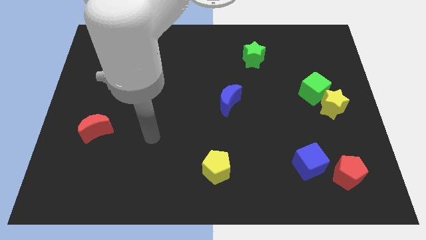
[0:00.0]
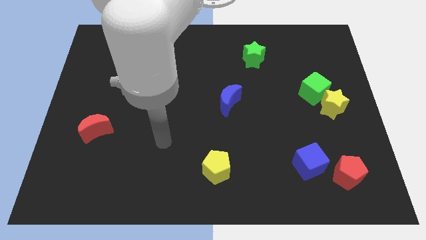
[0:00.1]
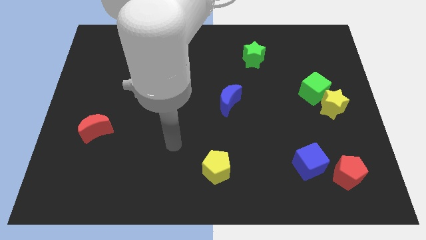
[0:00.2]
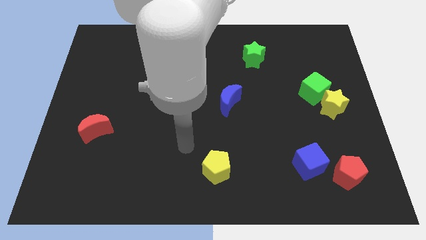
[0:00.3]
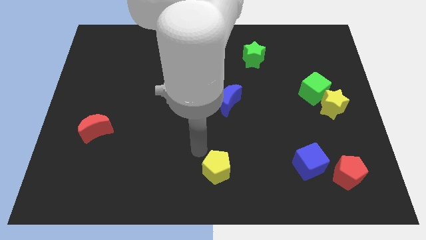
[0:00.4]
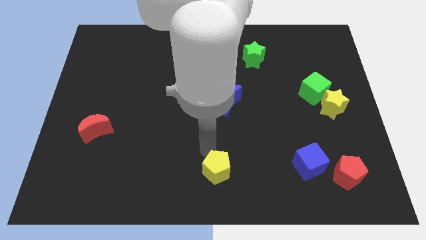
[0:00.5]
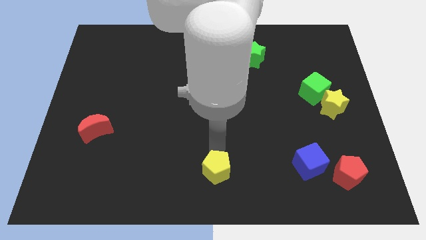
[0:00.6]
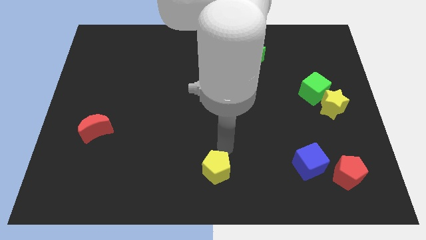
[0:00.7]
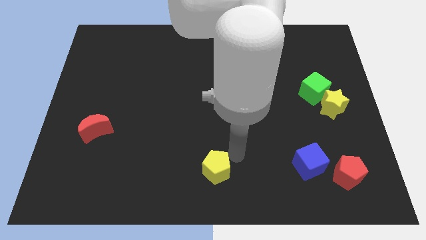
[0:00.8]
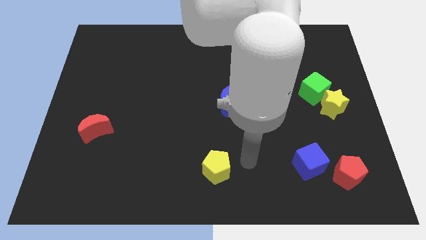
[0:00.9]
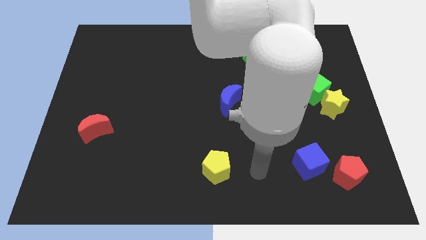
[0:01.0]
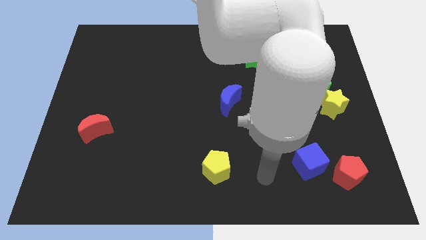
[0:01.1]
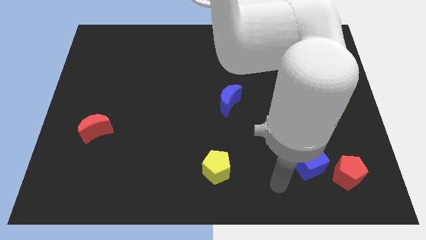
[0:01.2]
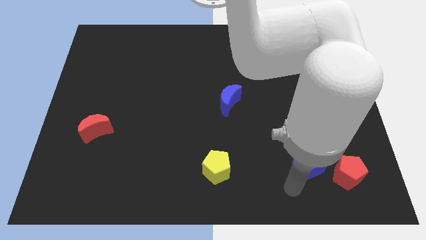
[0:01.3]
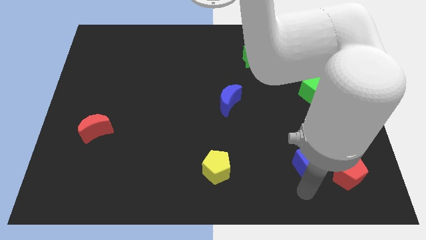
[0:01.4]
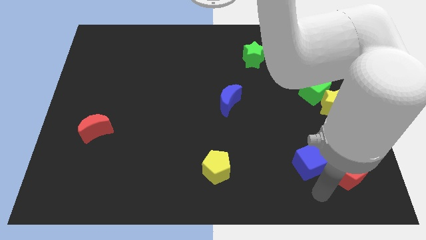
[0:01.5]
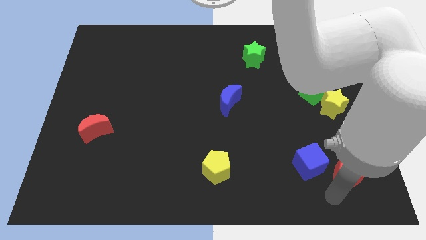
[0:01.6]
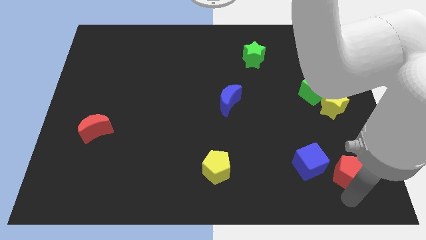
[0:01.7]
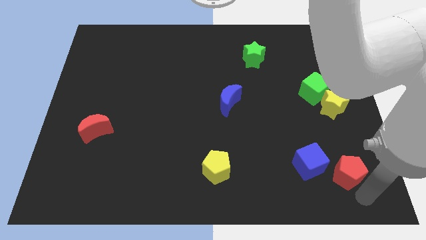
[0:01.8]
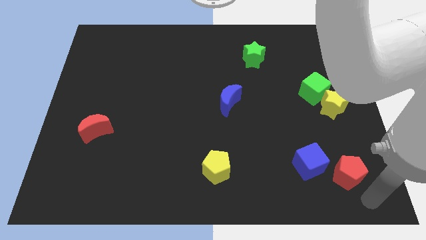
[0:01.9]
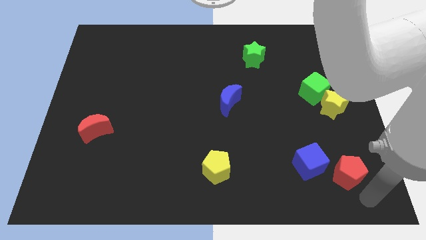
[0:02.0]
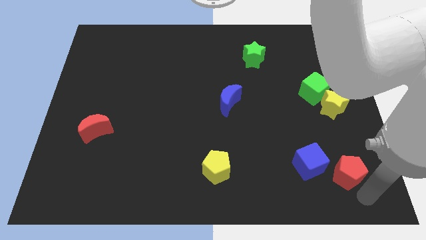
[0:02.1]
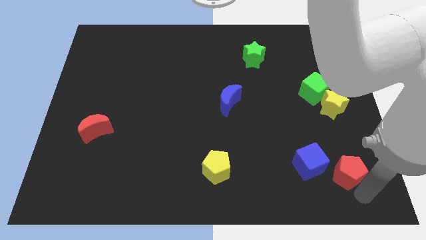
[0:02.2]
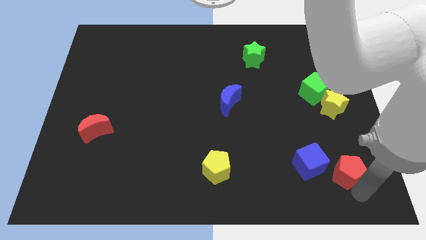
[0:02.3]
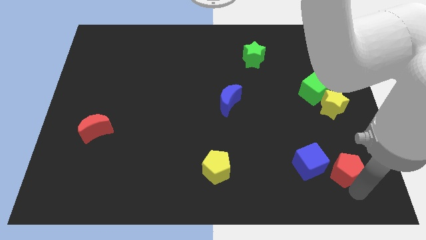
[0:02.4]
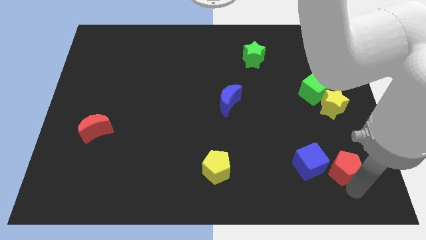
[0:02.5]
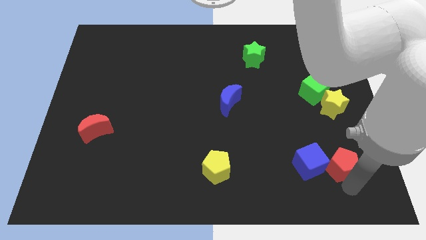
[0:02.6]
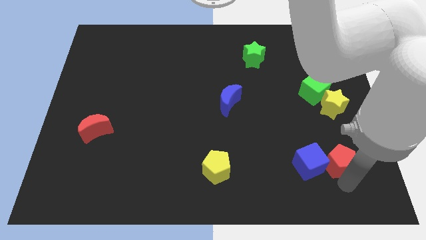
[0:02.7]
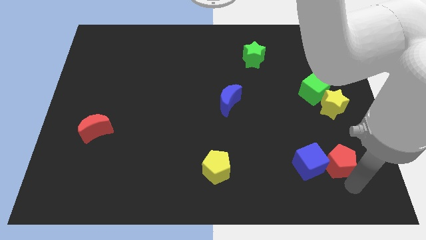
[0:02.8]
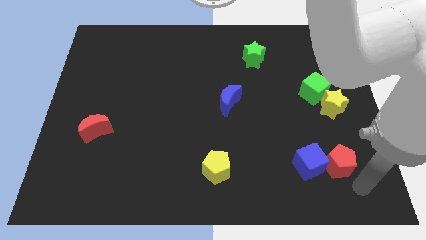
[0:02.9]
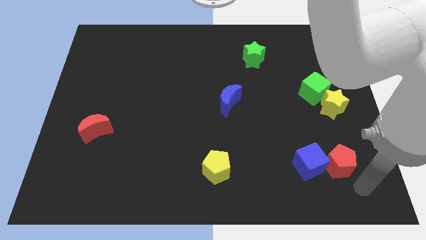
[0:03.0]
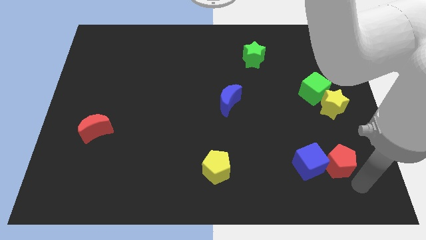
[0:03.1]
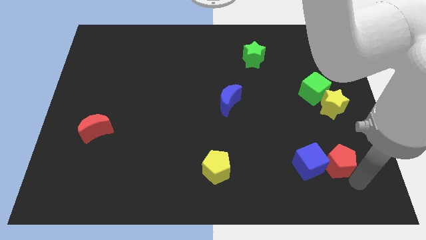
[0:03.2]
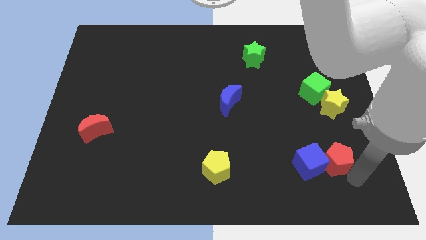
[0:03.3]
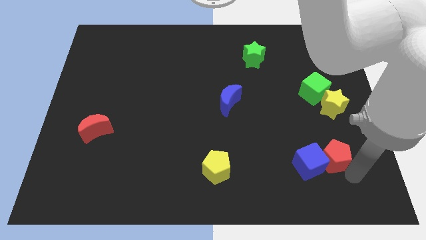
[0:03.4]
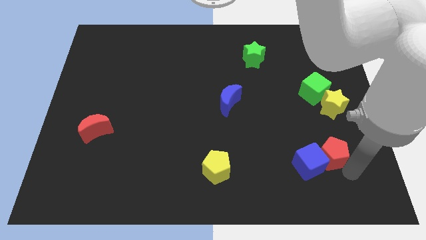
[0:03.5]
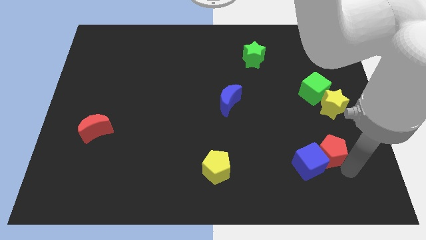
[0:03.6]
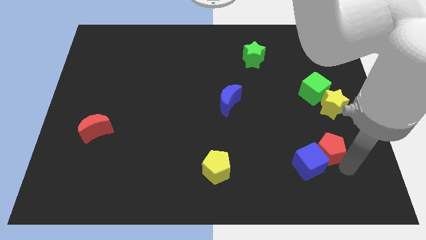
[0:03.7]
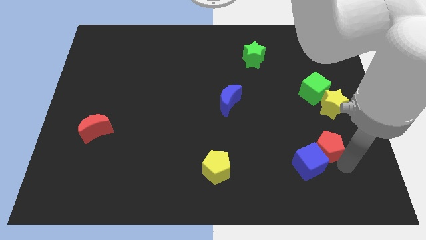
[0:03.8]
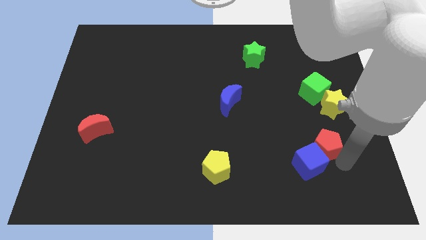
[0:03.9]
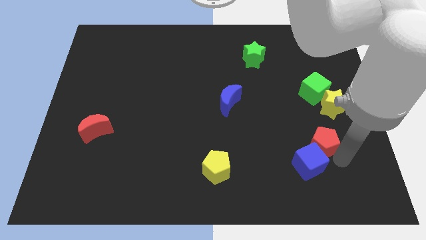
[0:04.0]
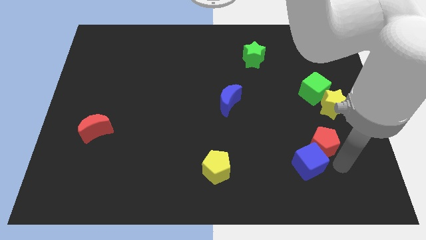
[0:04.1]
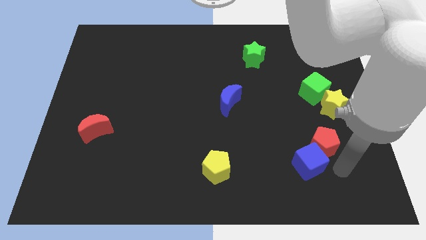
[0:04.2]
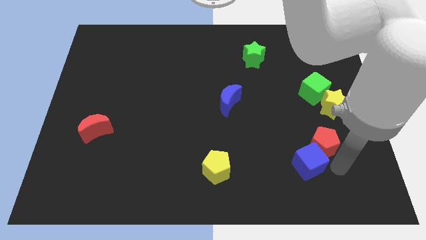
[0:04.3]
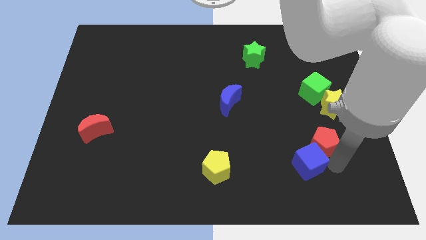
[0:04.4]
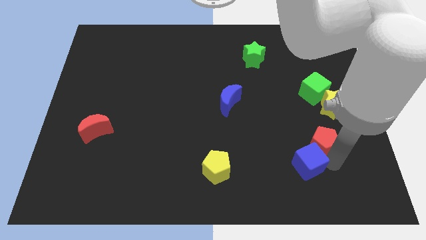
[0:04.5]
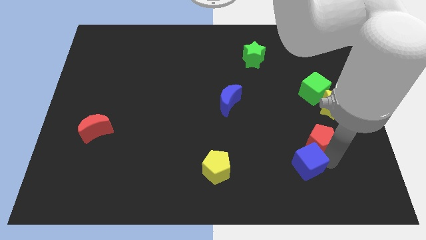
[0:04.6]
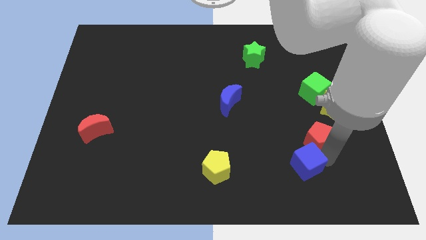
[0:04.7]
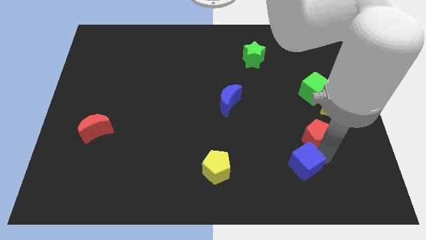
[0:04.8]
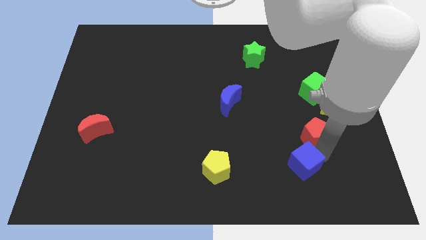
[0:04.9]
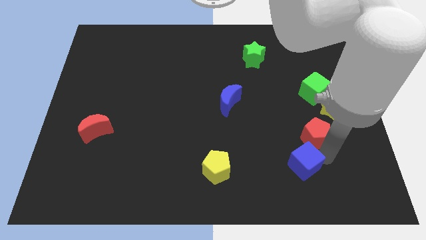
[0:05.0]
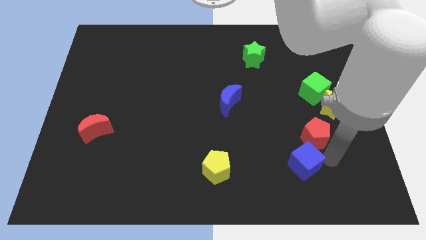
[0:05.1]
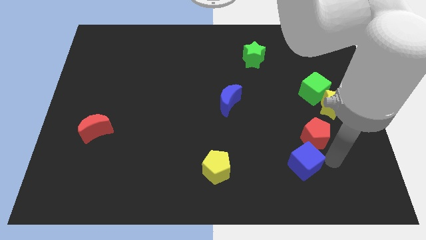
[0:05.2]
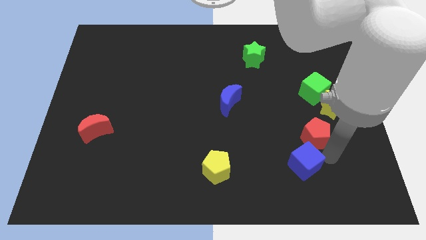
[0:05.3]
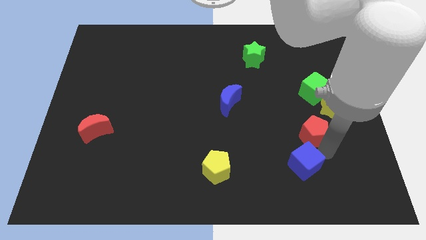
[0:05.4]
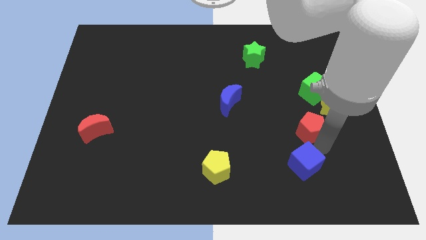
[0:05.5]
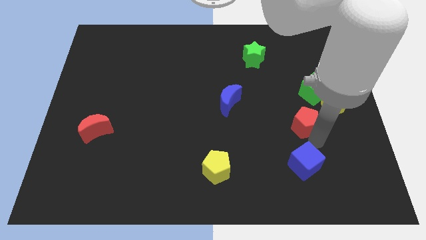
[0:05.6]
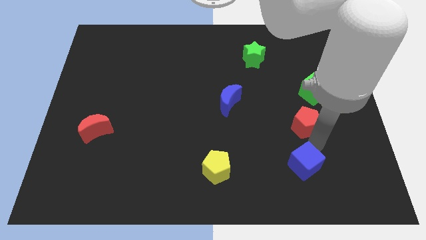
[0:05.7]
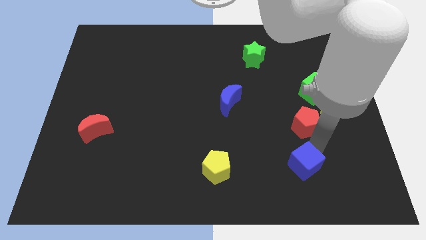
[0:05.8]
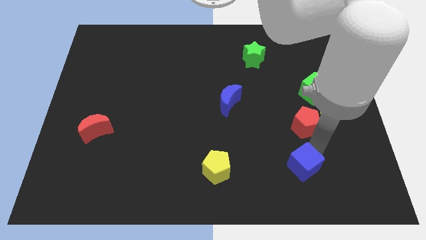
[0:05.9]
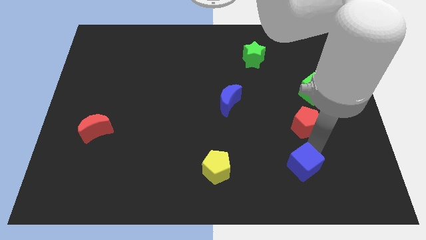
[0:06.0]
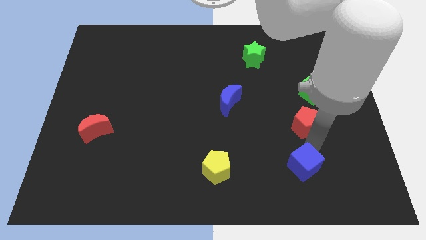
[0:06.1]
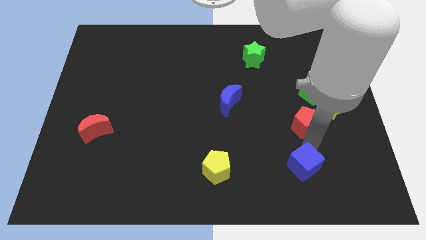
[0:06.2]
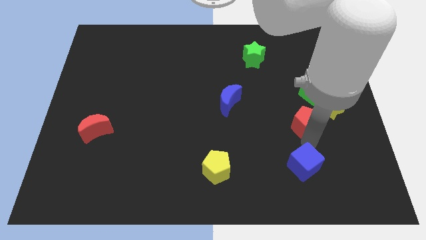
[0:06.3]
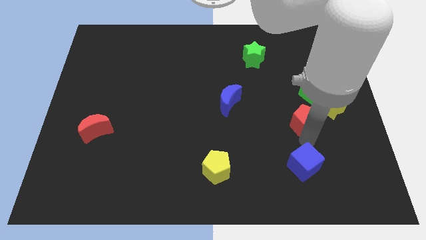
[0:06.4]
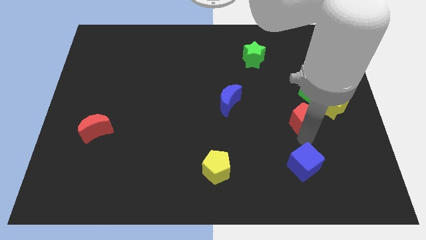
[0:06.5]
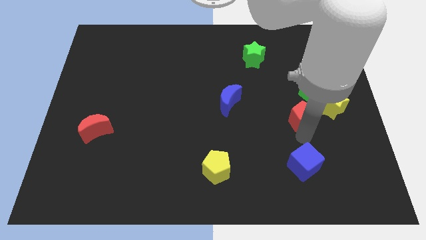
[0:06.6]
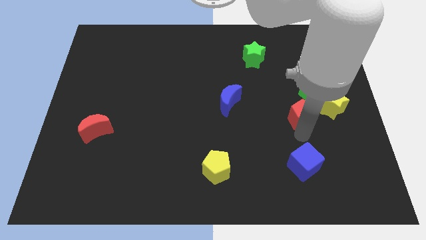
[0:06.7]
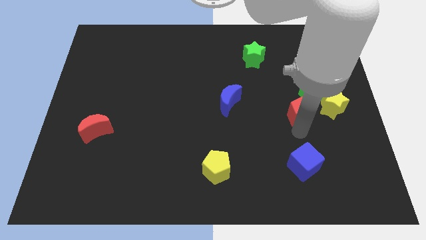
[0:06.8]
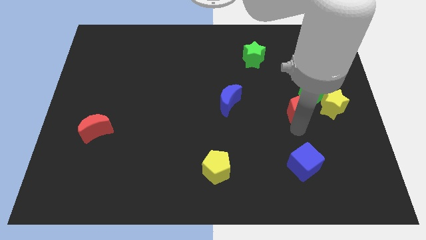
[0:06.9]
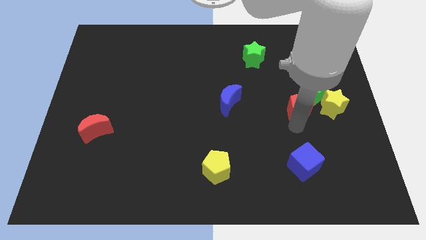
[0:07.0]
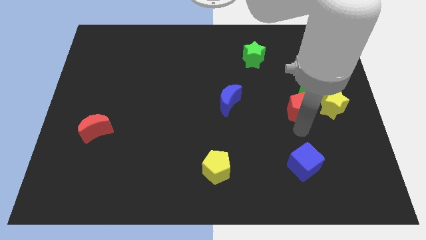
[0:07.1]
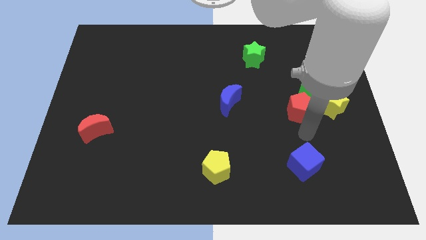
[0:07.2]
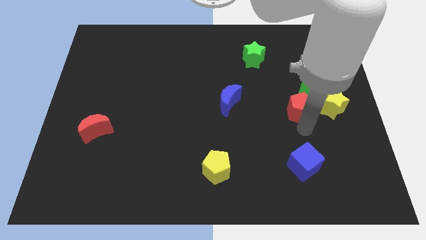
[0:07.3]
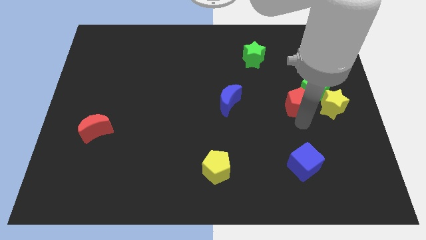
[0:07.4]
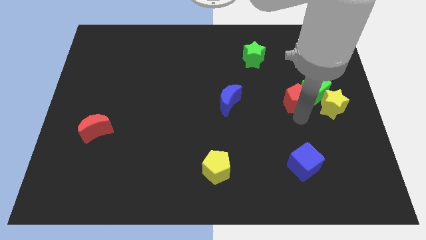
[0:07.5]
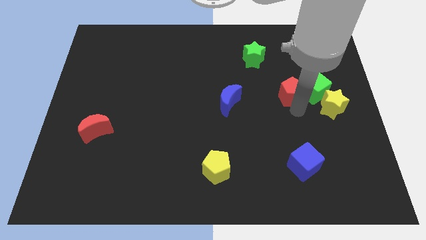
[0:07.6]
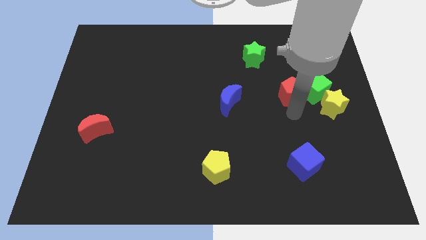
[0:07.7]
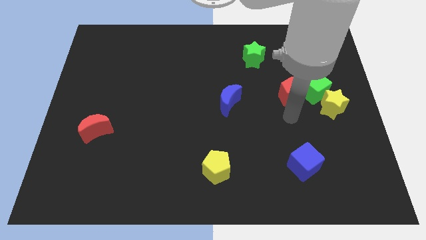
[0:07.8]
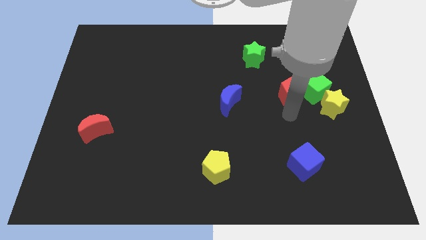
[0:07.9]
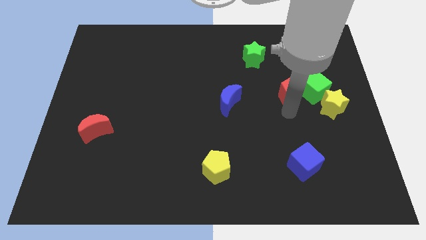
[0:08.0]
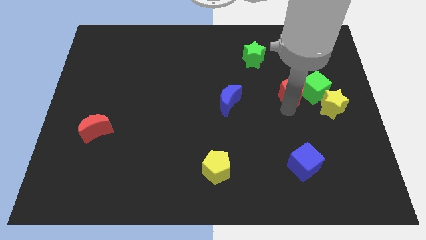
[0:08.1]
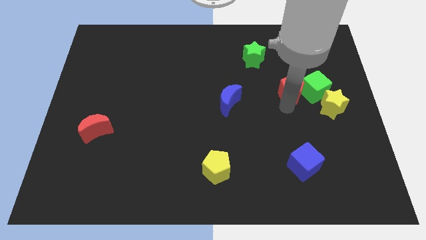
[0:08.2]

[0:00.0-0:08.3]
push the red pentagon diagonally up and to the left of the green cube
